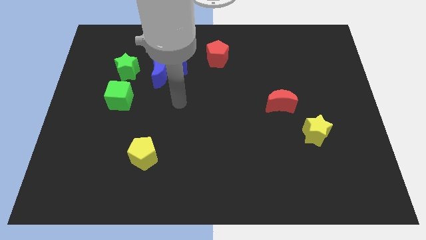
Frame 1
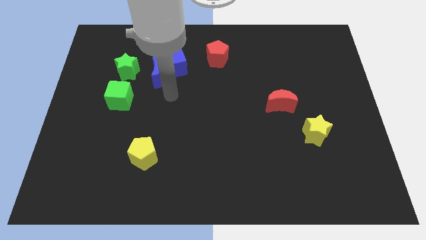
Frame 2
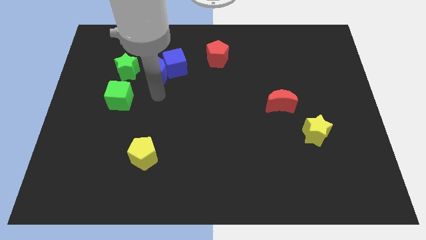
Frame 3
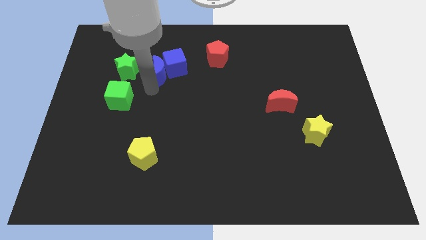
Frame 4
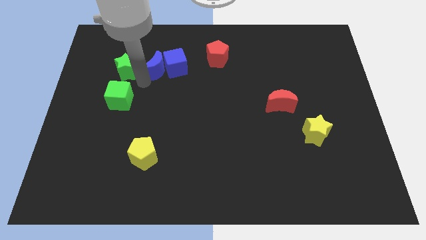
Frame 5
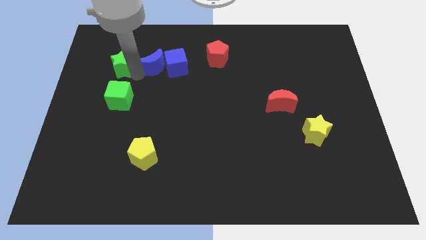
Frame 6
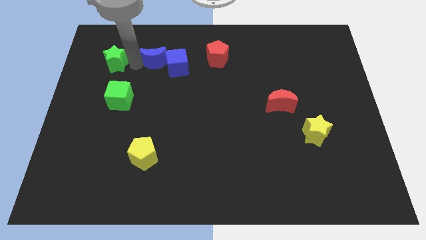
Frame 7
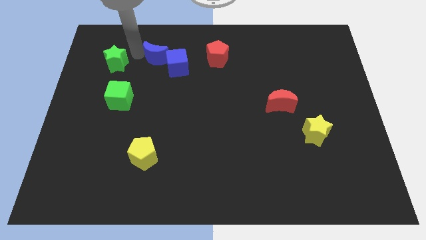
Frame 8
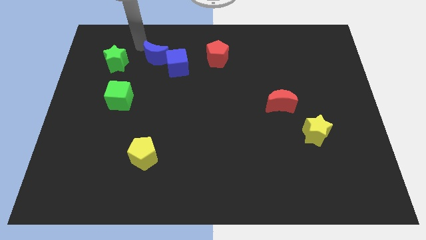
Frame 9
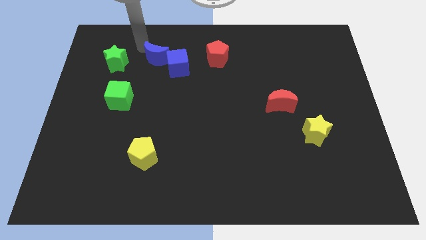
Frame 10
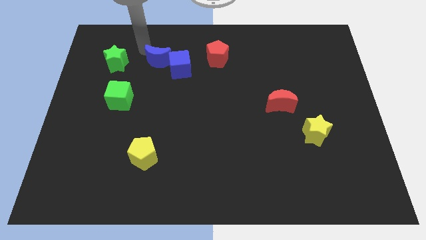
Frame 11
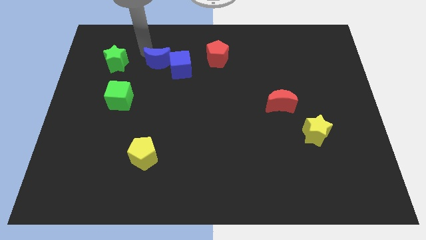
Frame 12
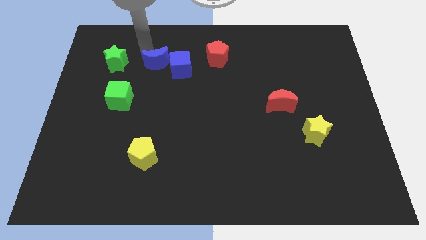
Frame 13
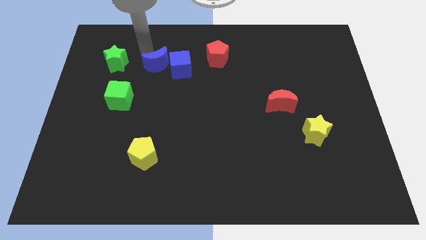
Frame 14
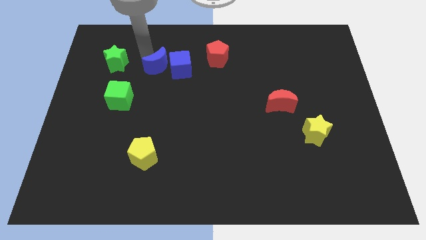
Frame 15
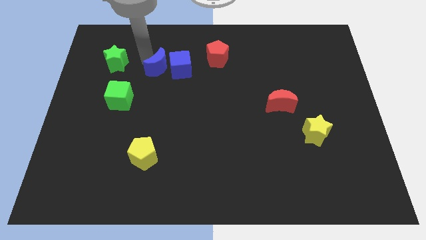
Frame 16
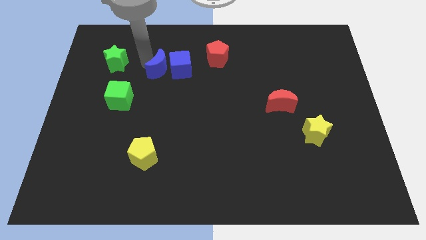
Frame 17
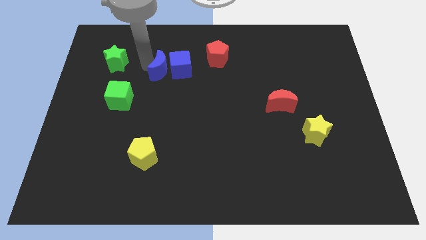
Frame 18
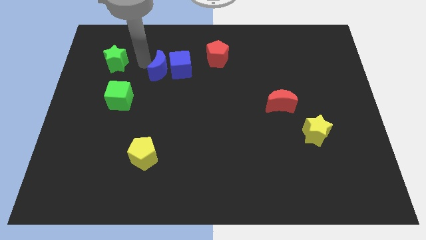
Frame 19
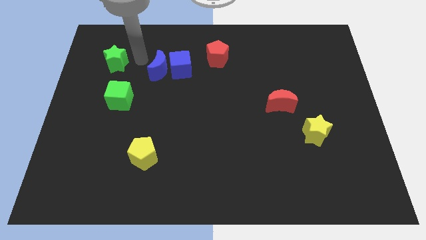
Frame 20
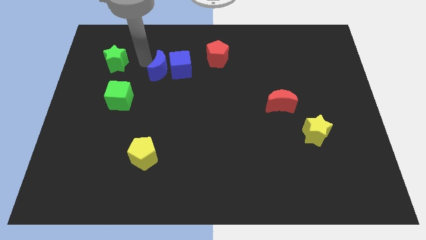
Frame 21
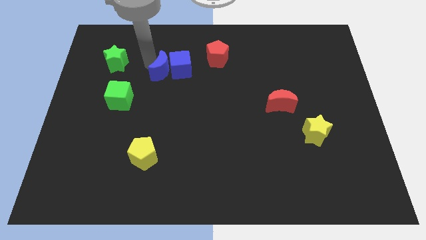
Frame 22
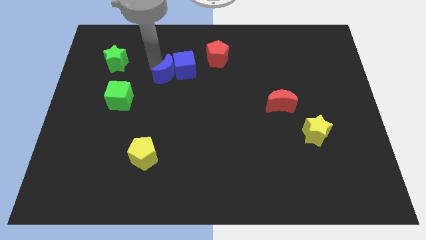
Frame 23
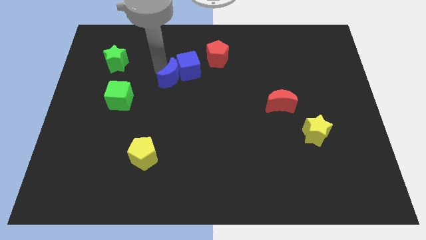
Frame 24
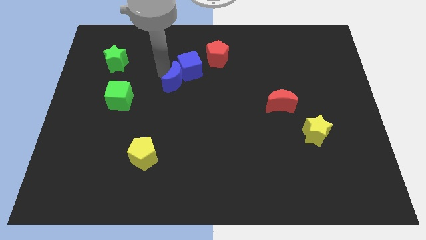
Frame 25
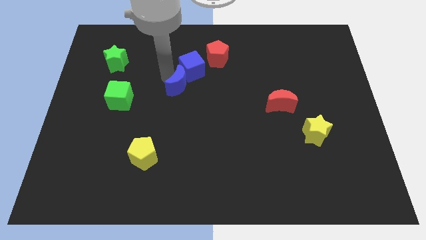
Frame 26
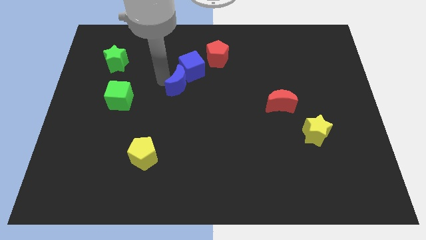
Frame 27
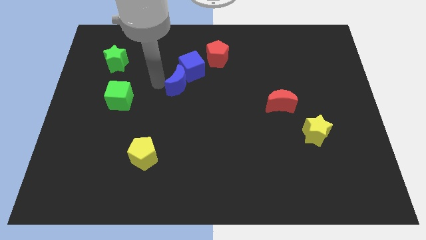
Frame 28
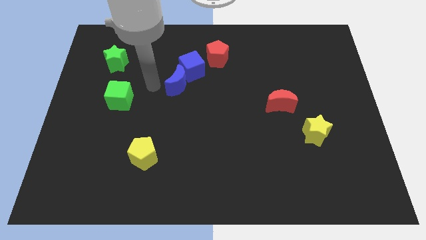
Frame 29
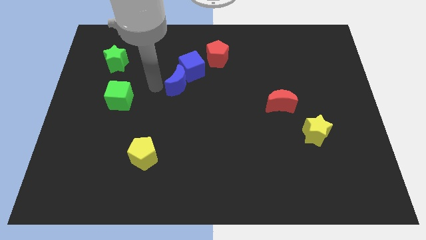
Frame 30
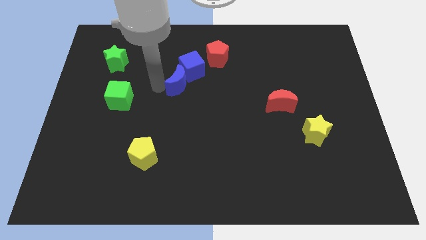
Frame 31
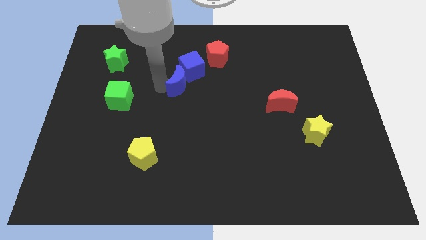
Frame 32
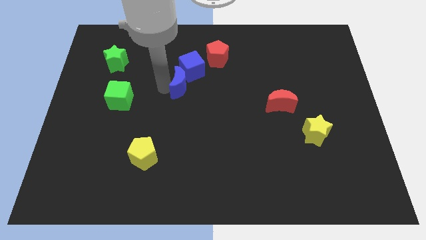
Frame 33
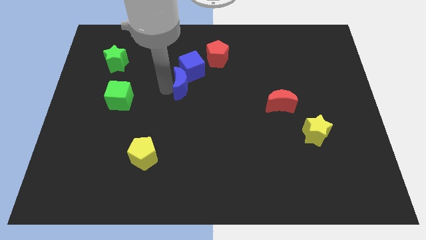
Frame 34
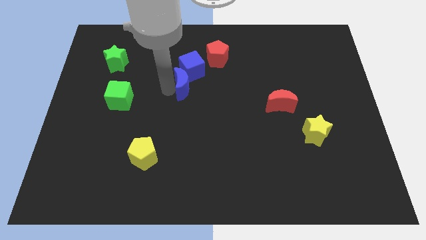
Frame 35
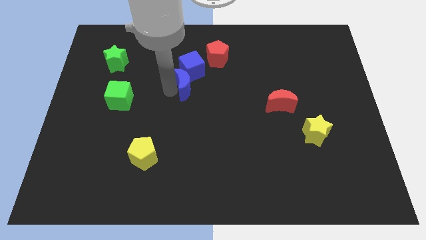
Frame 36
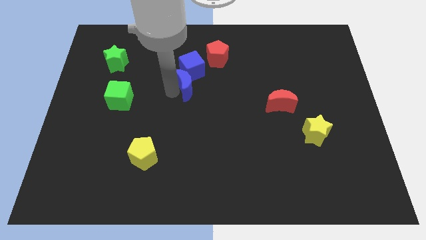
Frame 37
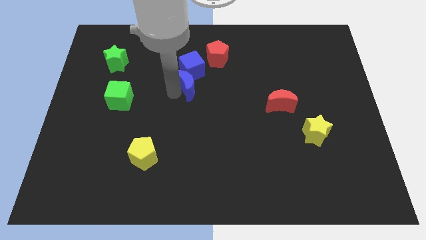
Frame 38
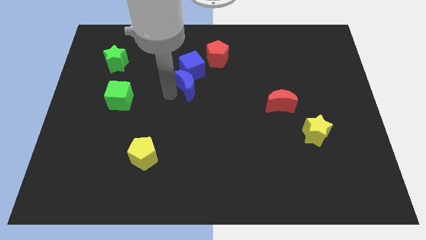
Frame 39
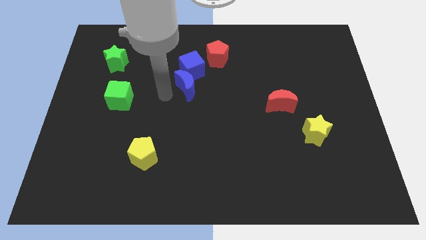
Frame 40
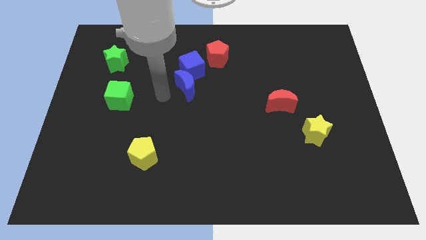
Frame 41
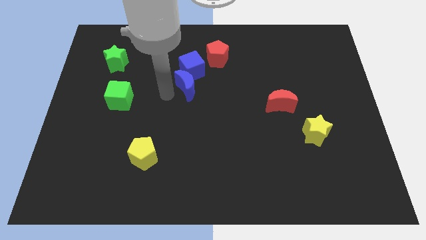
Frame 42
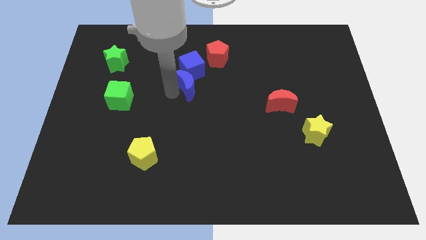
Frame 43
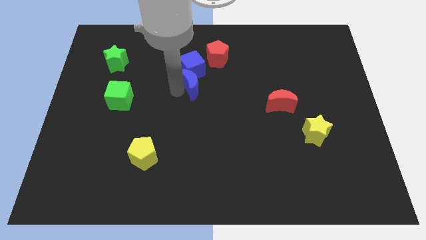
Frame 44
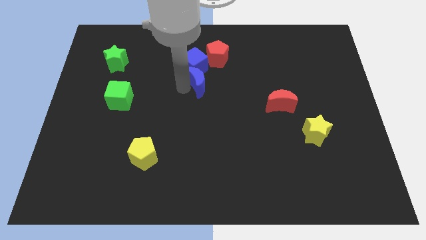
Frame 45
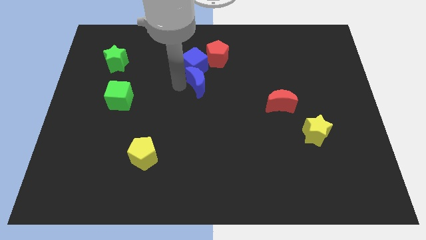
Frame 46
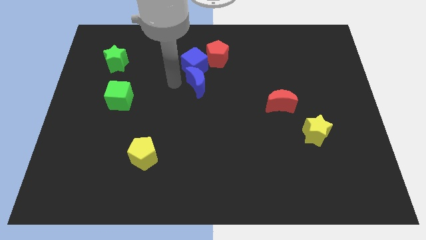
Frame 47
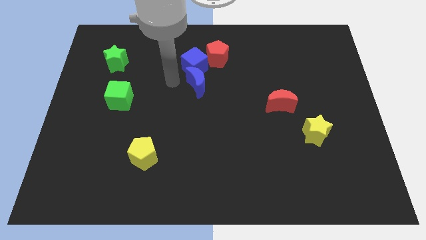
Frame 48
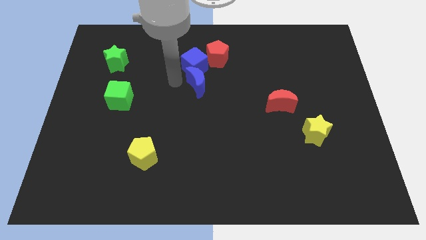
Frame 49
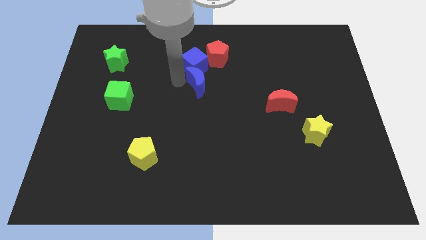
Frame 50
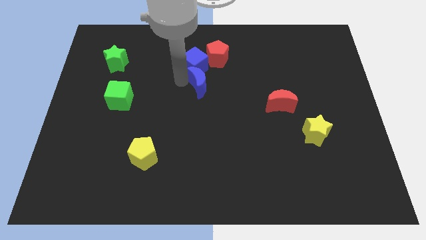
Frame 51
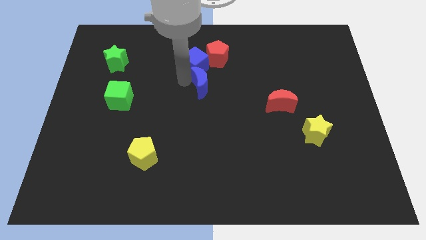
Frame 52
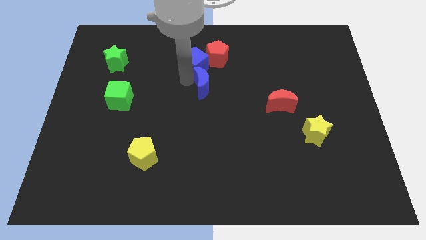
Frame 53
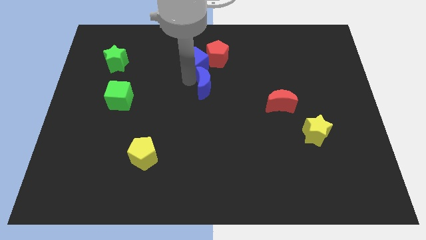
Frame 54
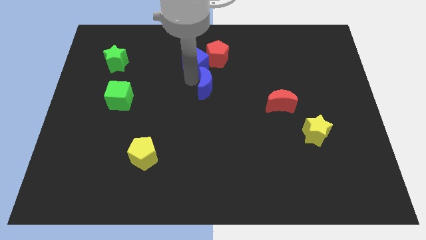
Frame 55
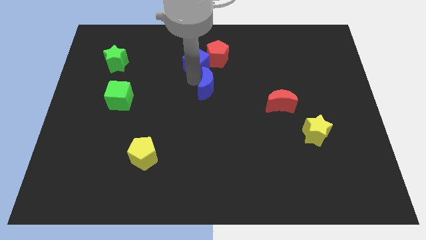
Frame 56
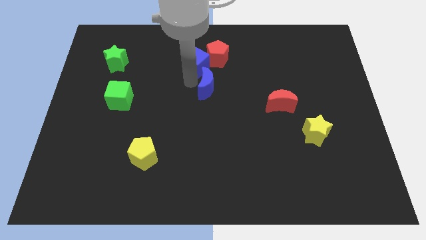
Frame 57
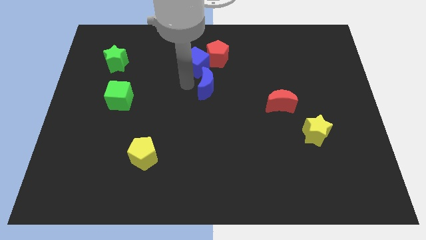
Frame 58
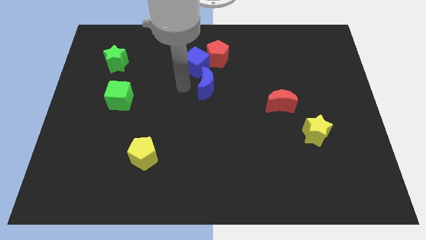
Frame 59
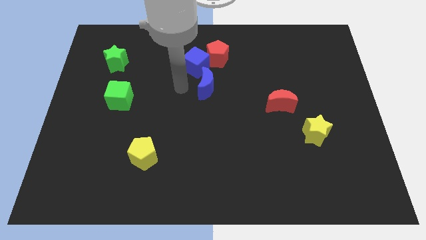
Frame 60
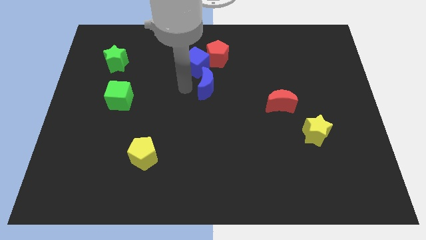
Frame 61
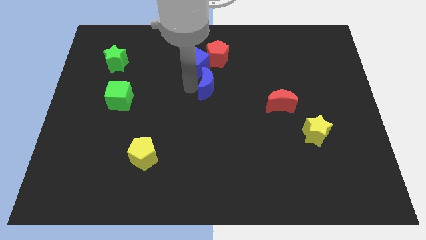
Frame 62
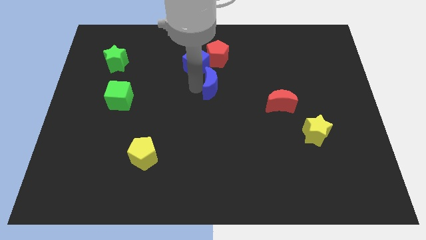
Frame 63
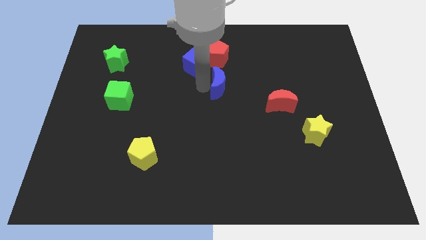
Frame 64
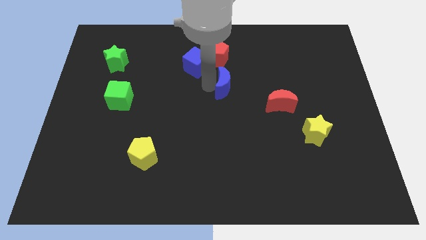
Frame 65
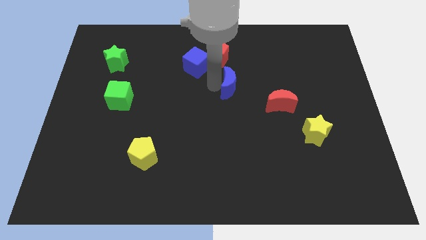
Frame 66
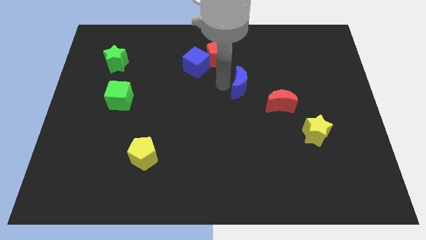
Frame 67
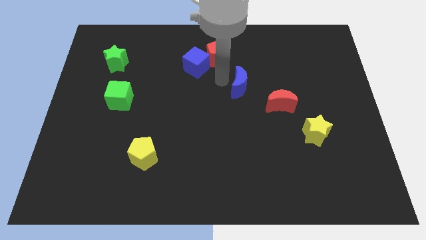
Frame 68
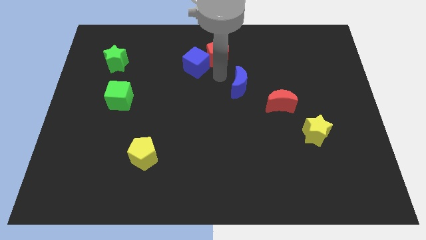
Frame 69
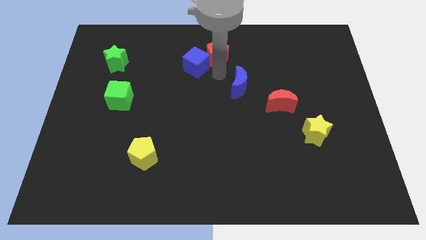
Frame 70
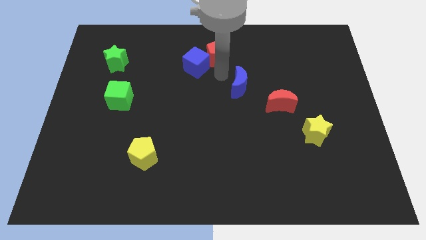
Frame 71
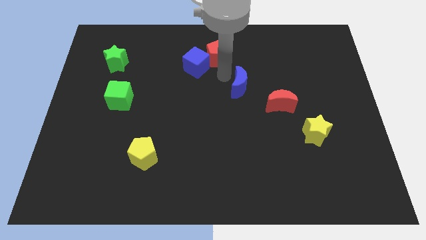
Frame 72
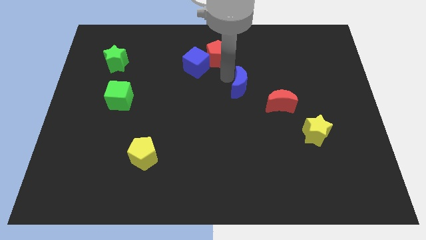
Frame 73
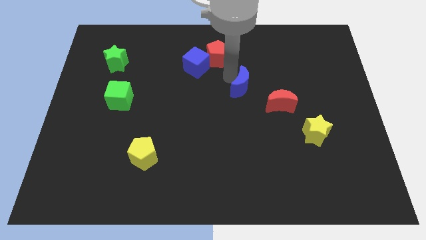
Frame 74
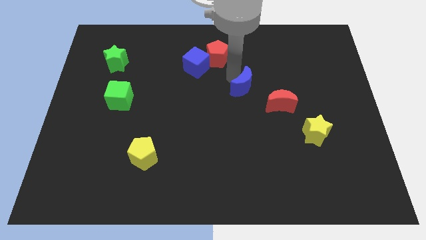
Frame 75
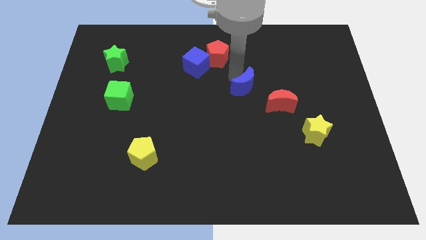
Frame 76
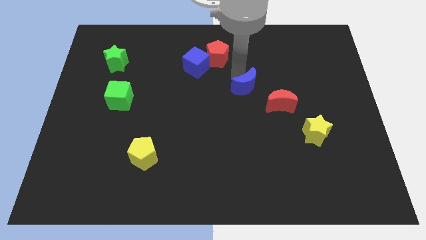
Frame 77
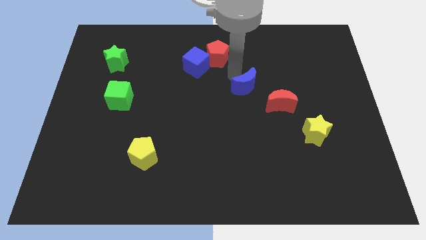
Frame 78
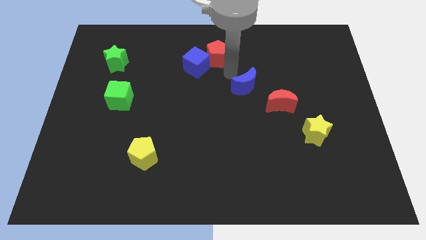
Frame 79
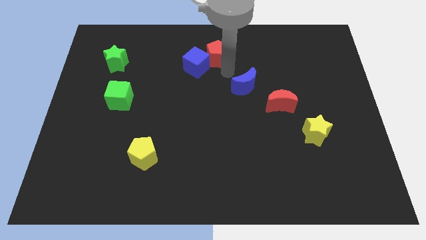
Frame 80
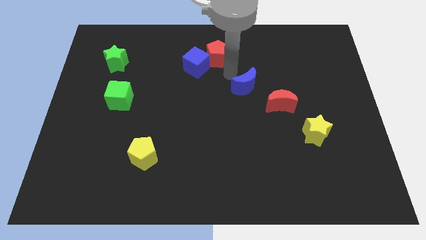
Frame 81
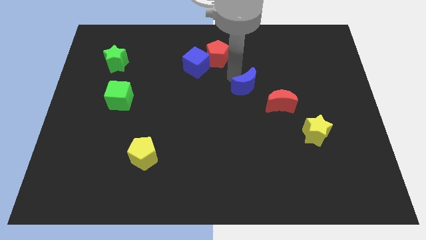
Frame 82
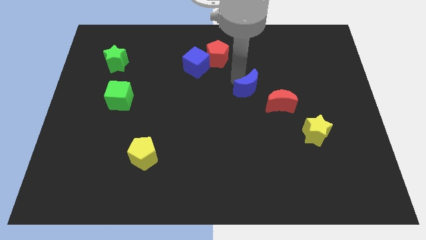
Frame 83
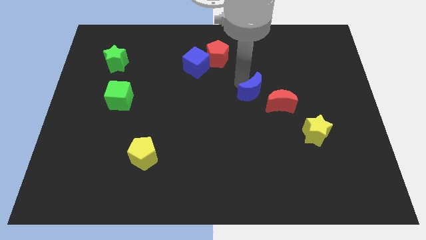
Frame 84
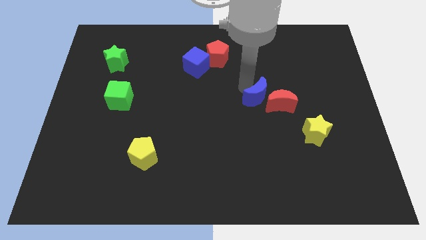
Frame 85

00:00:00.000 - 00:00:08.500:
slide the blue moon to the red moon
